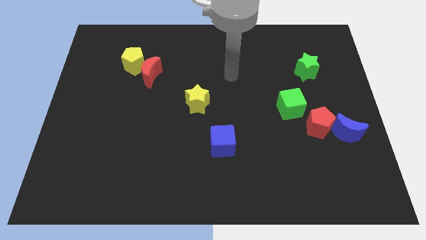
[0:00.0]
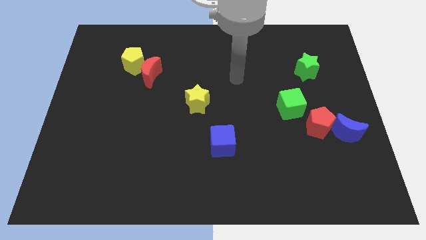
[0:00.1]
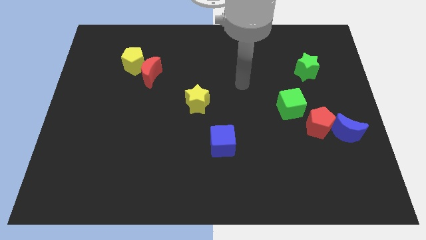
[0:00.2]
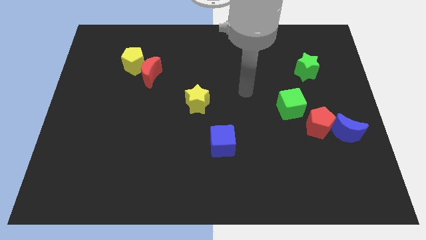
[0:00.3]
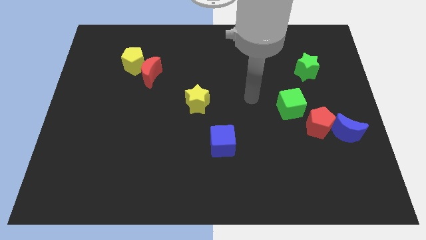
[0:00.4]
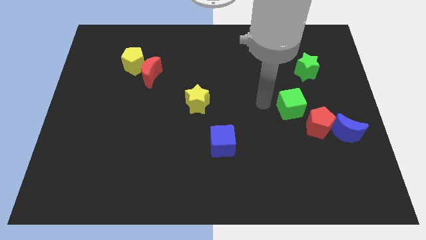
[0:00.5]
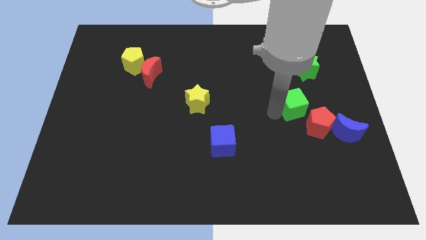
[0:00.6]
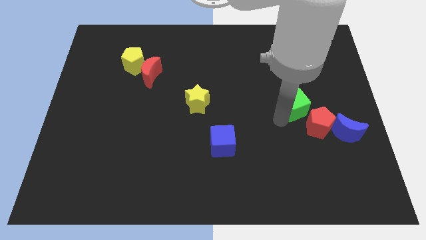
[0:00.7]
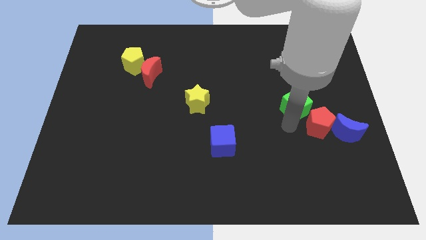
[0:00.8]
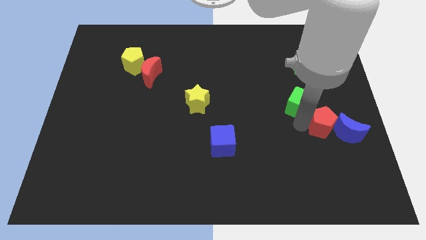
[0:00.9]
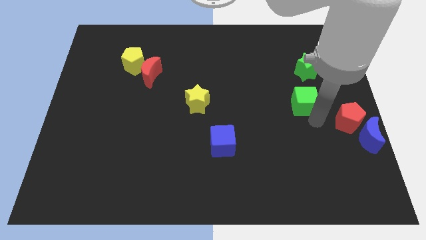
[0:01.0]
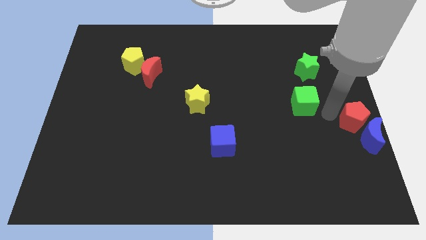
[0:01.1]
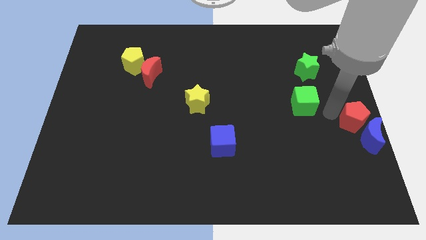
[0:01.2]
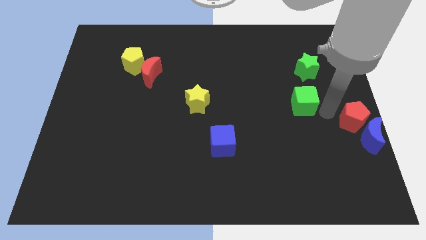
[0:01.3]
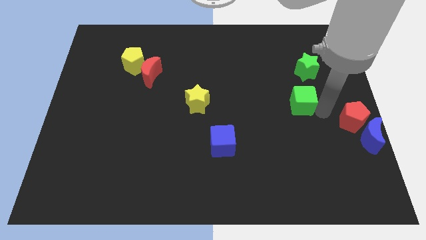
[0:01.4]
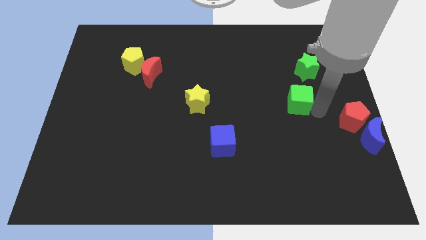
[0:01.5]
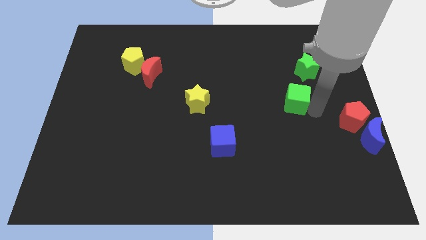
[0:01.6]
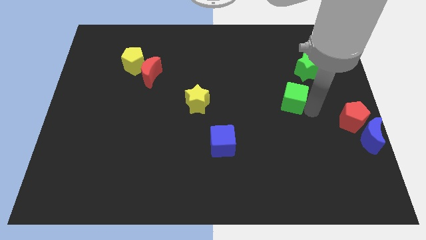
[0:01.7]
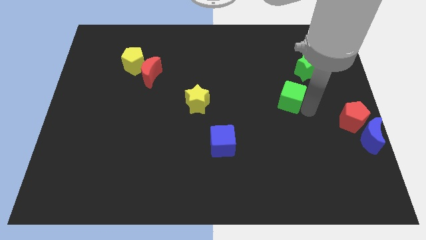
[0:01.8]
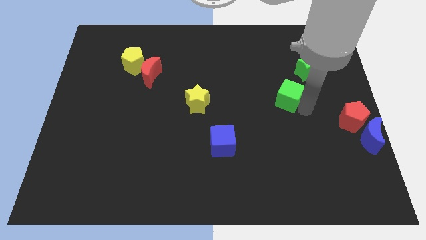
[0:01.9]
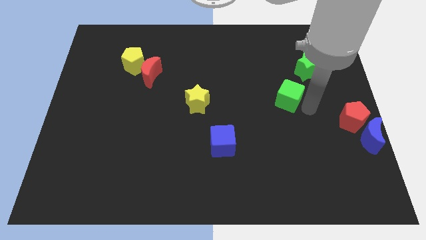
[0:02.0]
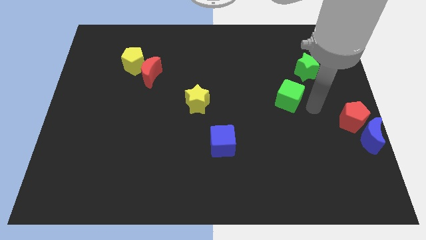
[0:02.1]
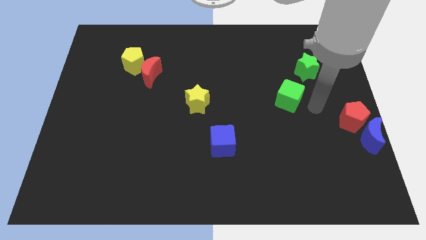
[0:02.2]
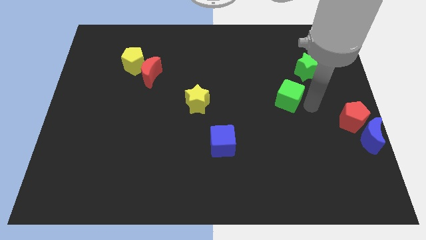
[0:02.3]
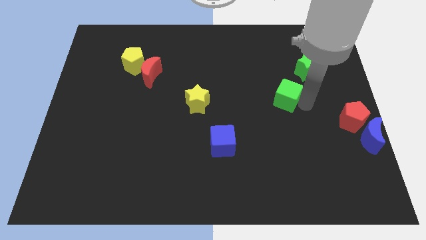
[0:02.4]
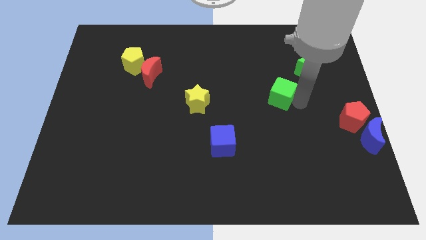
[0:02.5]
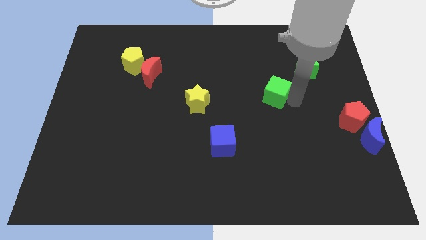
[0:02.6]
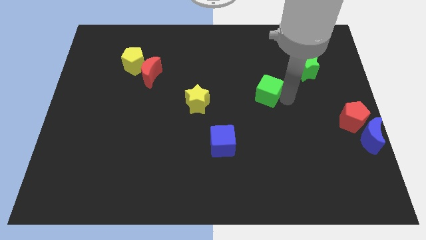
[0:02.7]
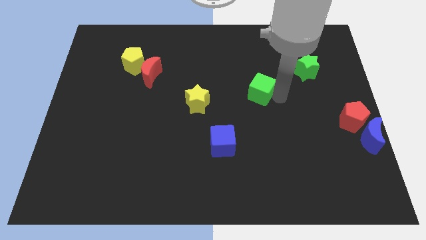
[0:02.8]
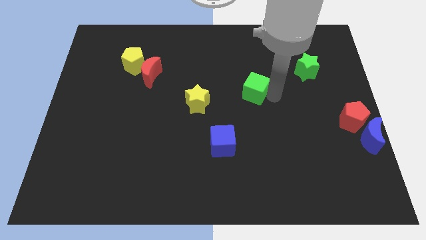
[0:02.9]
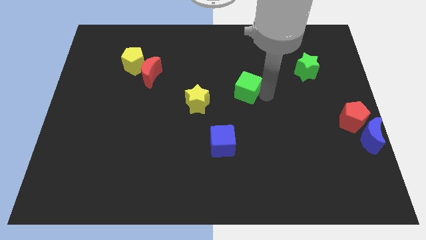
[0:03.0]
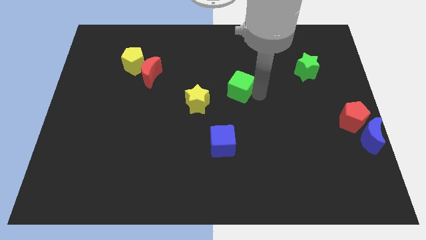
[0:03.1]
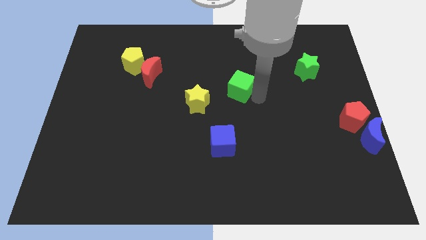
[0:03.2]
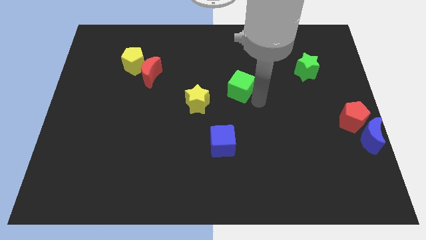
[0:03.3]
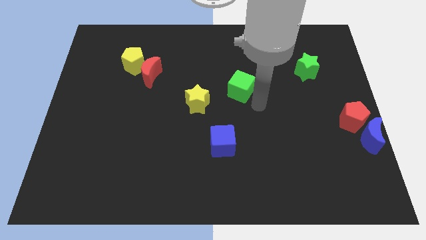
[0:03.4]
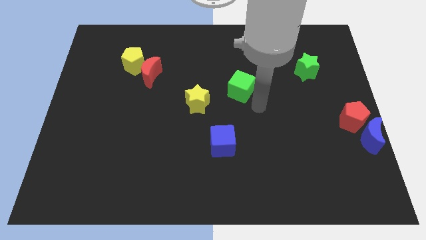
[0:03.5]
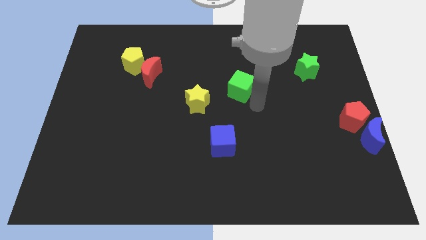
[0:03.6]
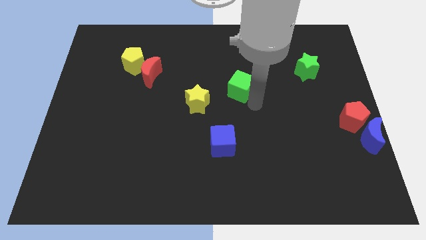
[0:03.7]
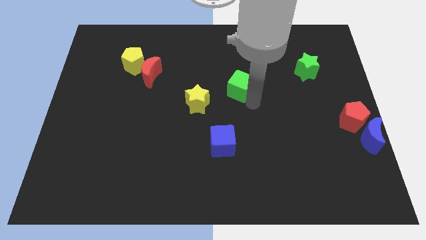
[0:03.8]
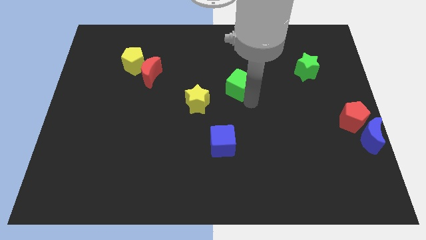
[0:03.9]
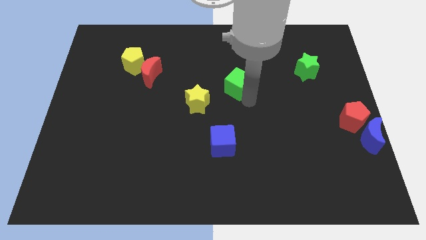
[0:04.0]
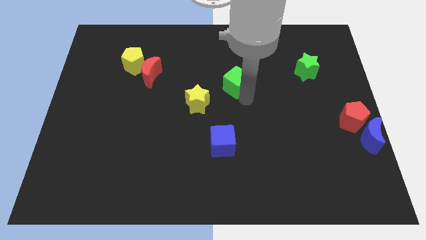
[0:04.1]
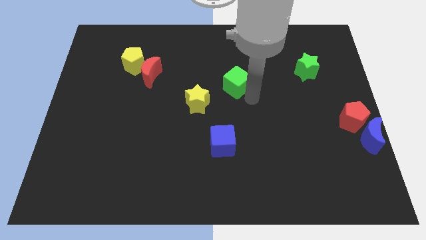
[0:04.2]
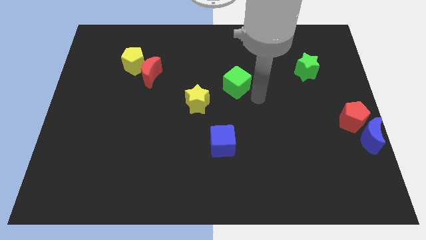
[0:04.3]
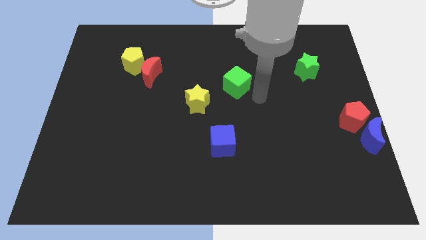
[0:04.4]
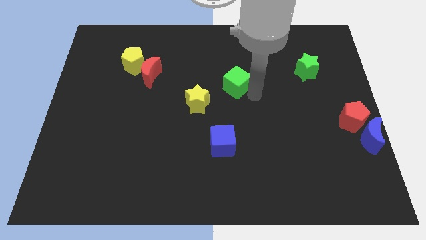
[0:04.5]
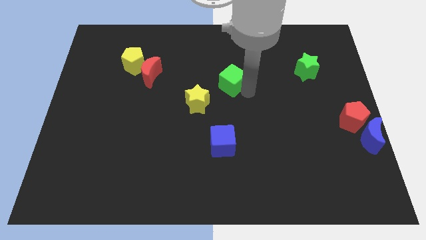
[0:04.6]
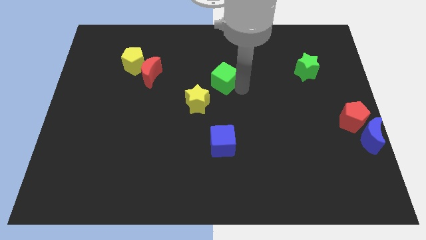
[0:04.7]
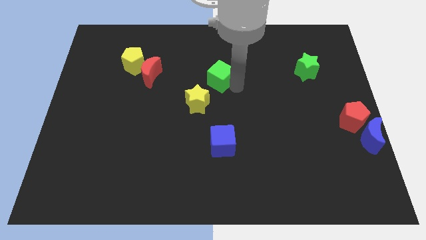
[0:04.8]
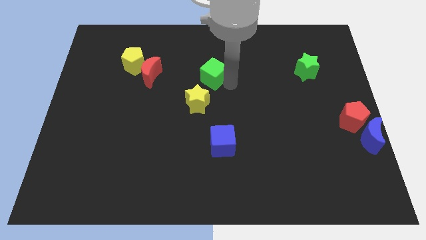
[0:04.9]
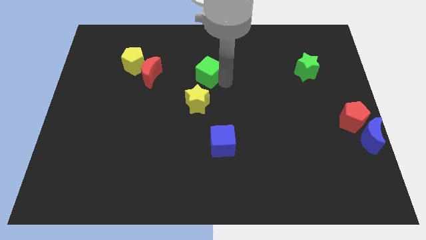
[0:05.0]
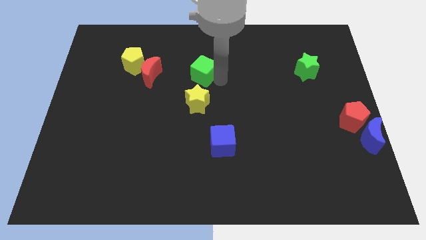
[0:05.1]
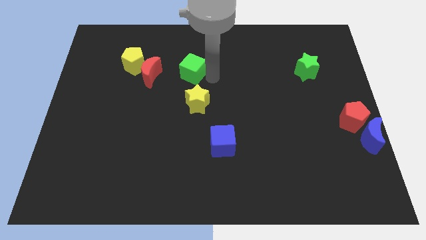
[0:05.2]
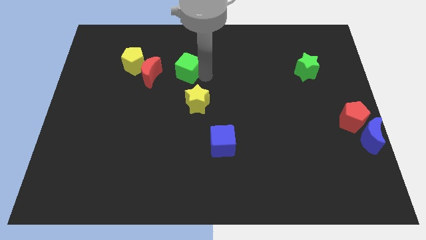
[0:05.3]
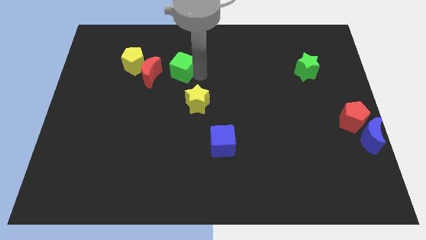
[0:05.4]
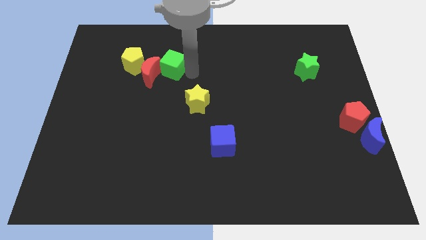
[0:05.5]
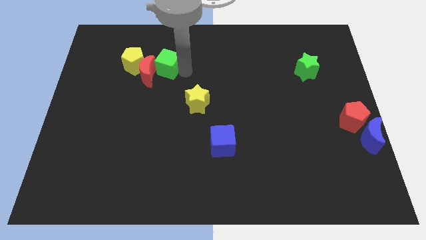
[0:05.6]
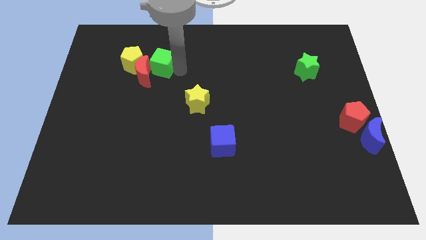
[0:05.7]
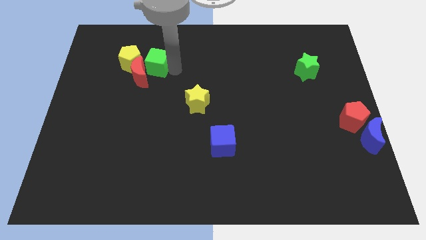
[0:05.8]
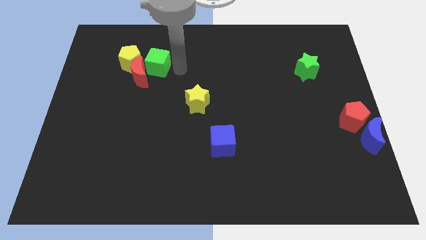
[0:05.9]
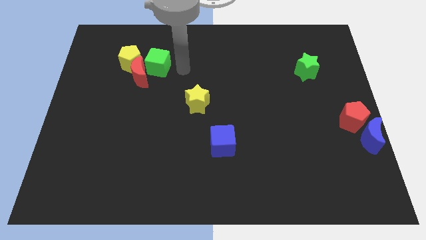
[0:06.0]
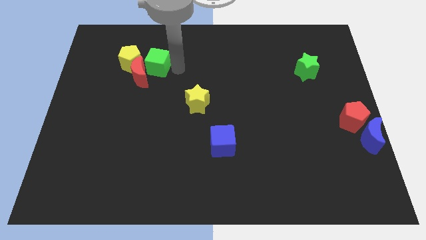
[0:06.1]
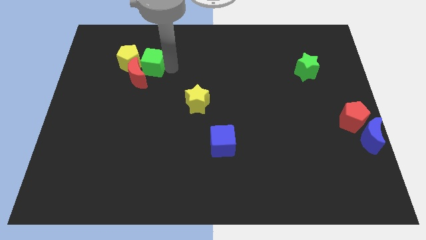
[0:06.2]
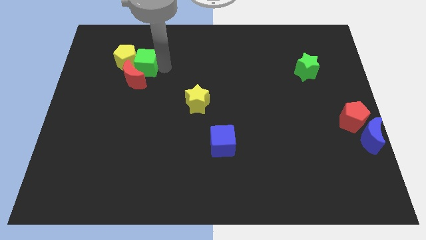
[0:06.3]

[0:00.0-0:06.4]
put the green cube close to the yellow pentagon

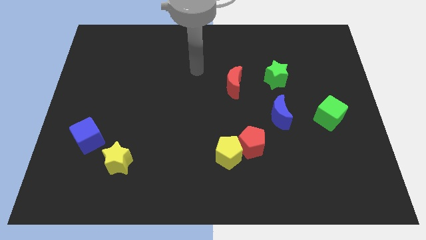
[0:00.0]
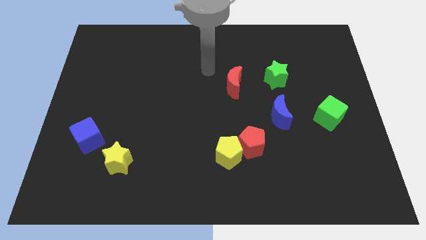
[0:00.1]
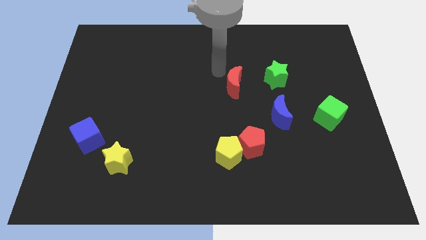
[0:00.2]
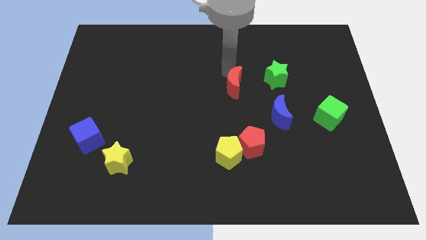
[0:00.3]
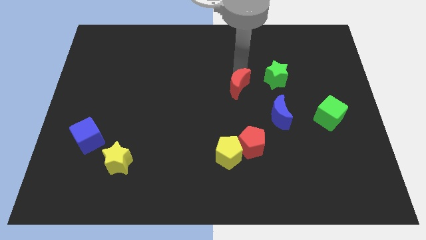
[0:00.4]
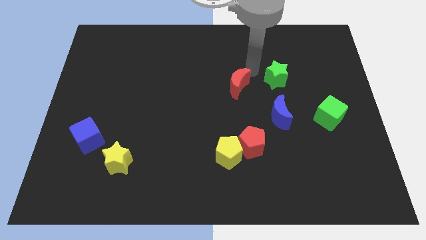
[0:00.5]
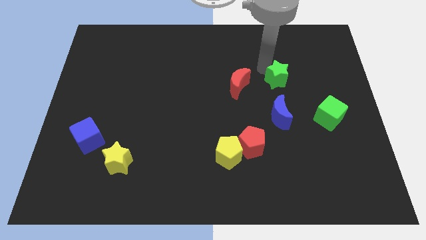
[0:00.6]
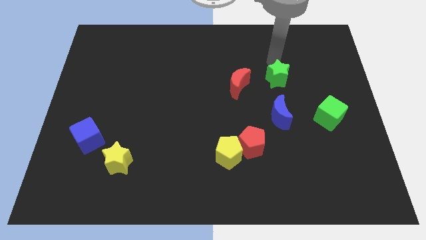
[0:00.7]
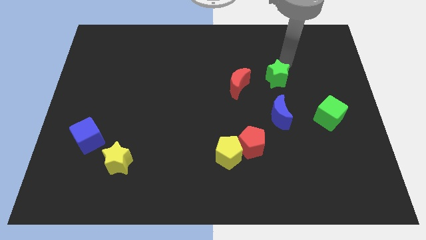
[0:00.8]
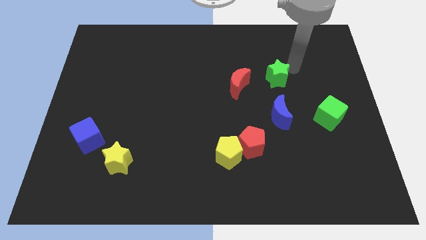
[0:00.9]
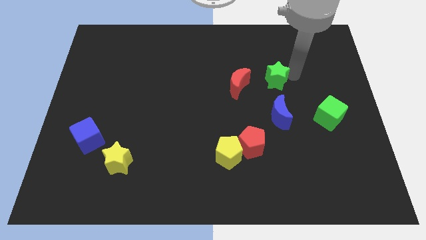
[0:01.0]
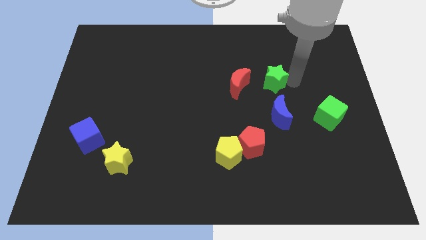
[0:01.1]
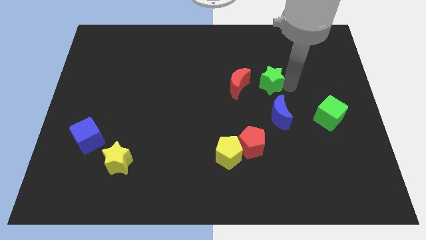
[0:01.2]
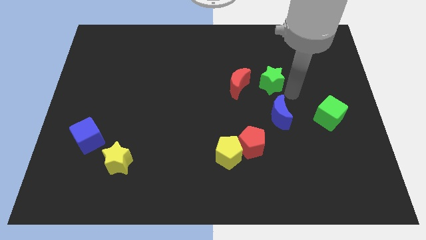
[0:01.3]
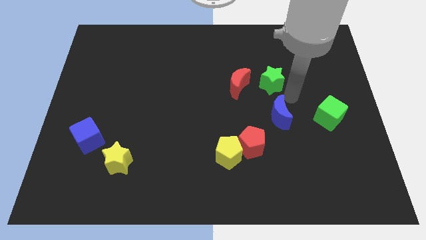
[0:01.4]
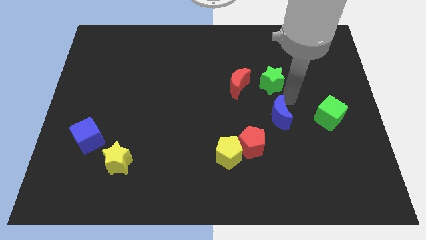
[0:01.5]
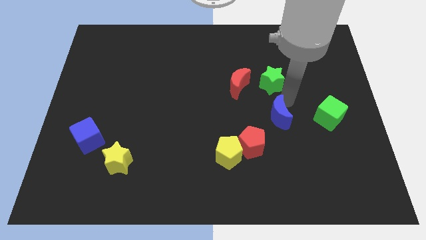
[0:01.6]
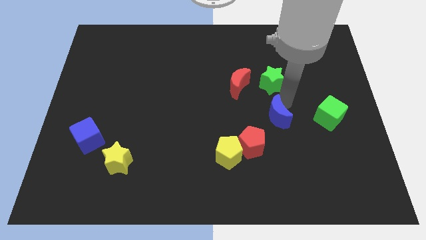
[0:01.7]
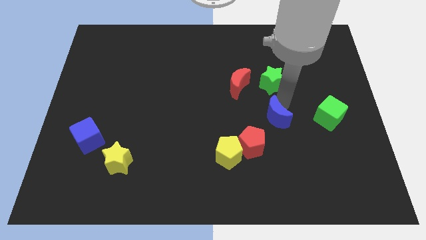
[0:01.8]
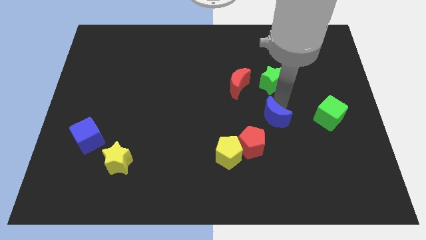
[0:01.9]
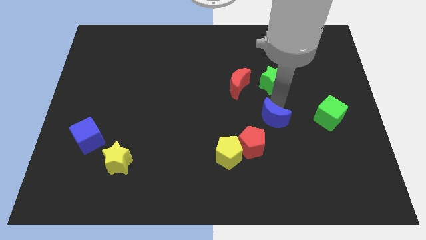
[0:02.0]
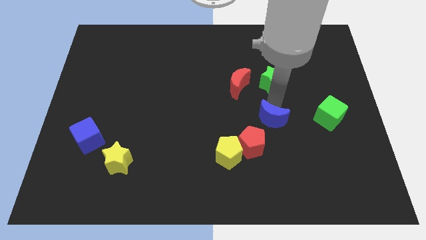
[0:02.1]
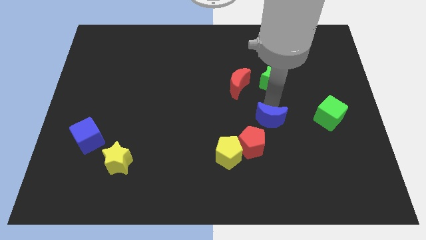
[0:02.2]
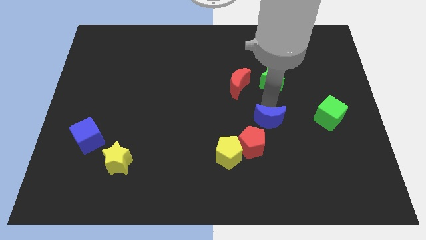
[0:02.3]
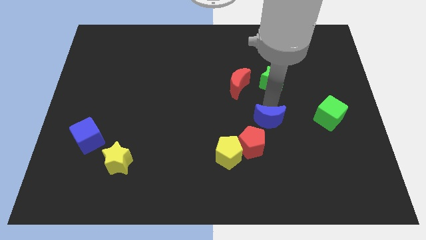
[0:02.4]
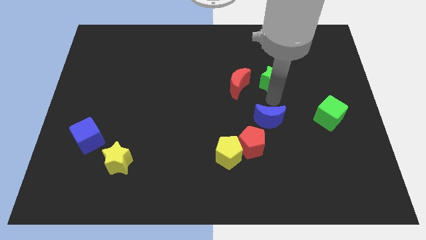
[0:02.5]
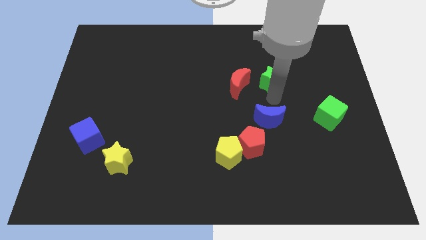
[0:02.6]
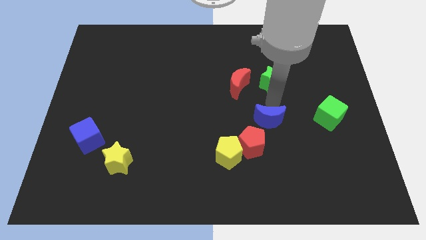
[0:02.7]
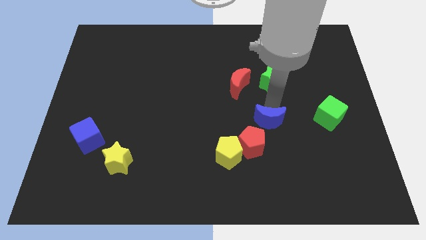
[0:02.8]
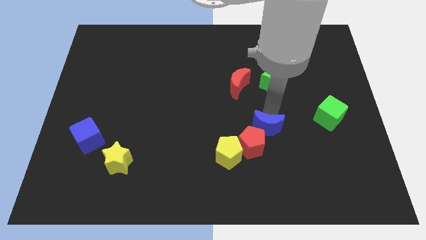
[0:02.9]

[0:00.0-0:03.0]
slide the blue moon close to the red pentagon
